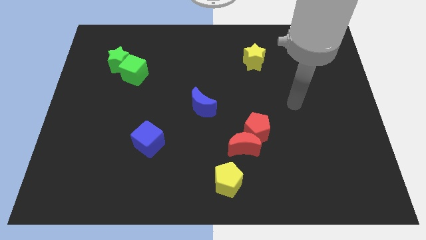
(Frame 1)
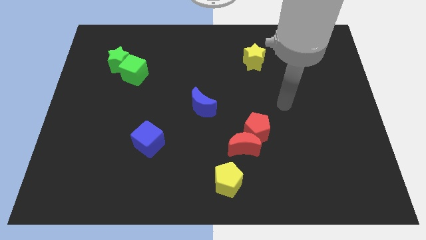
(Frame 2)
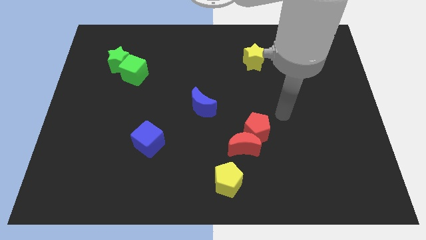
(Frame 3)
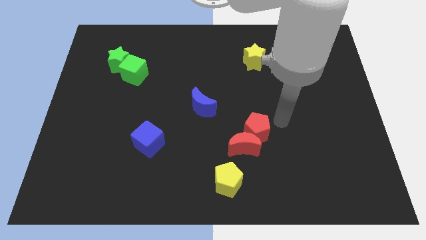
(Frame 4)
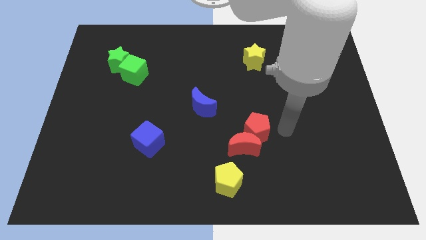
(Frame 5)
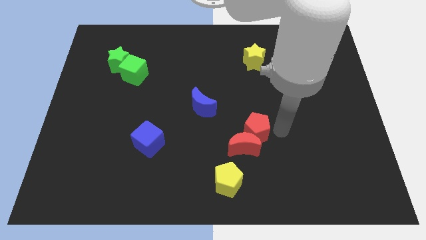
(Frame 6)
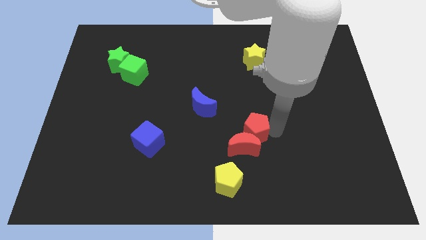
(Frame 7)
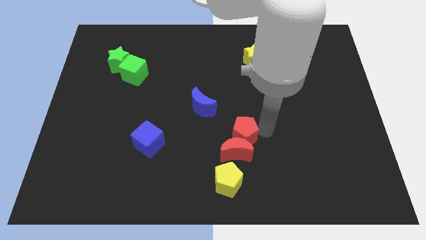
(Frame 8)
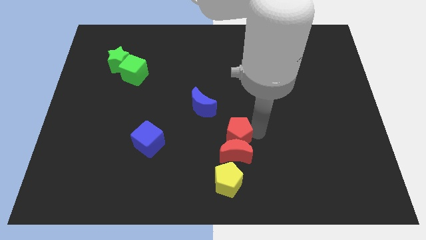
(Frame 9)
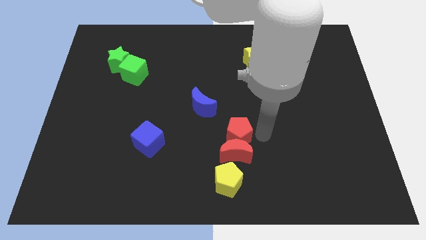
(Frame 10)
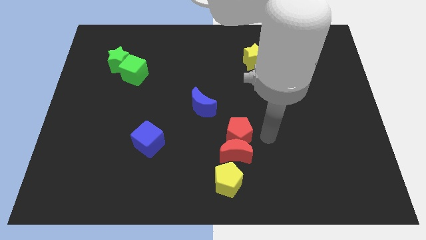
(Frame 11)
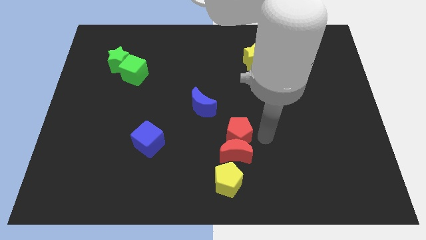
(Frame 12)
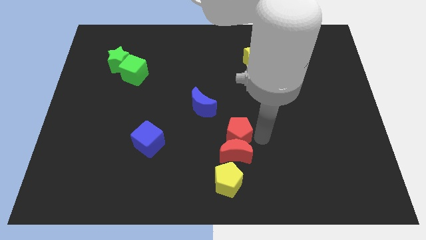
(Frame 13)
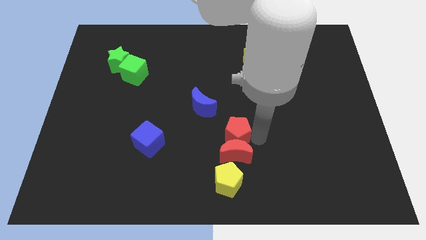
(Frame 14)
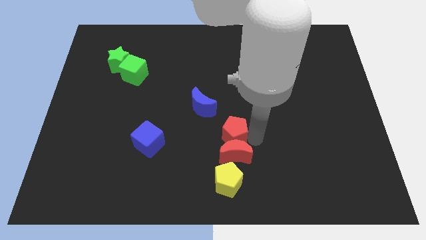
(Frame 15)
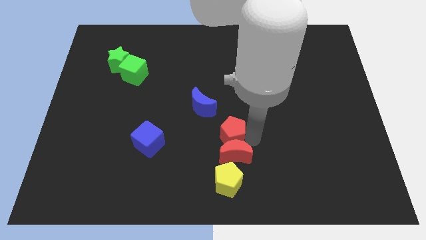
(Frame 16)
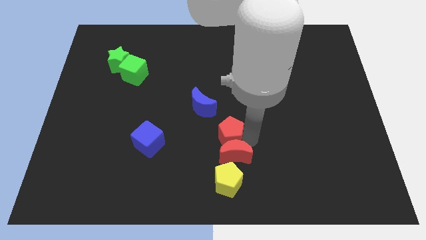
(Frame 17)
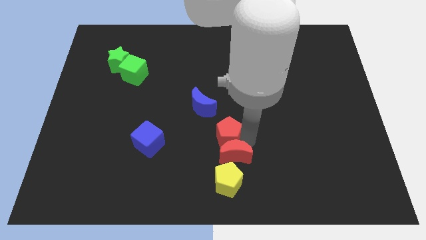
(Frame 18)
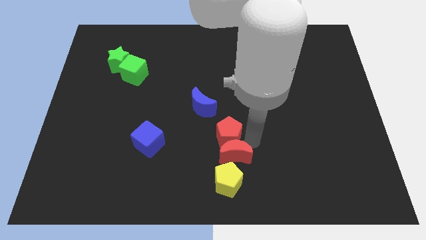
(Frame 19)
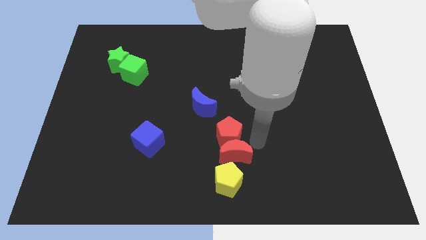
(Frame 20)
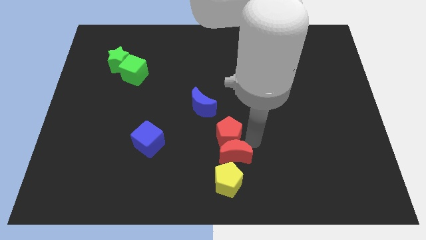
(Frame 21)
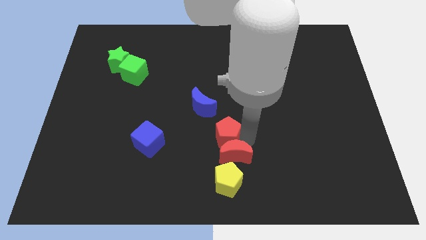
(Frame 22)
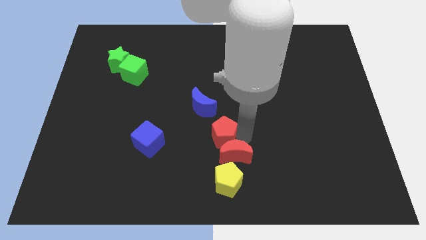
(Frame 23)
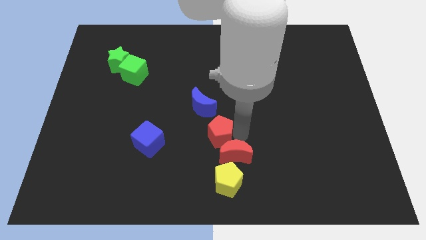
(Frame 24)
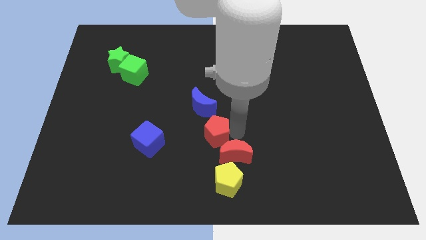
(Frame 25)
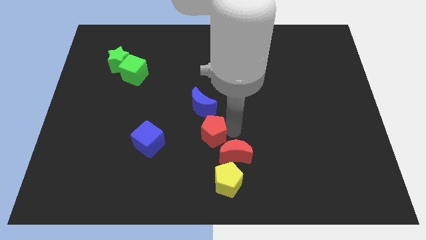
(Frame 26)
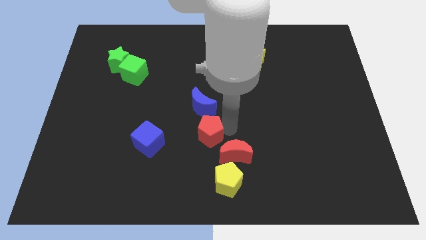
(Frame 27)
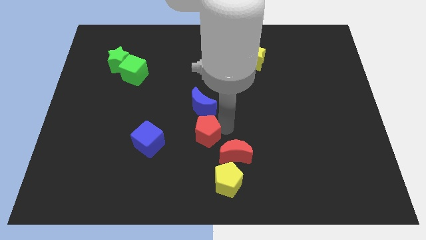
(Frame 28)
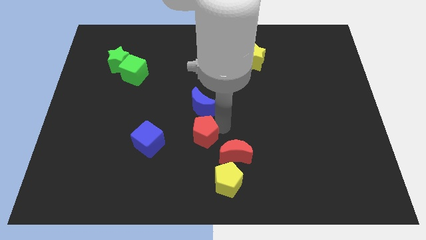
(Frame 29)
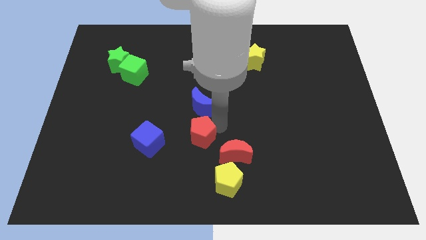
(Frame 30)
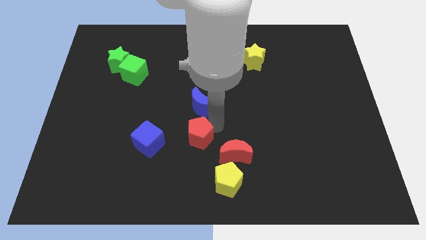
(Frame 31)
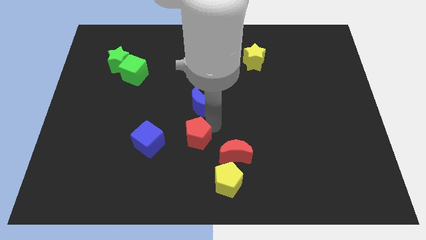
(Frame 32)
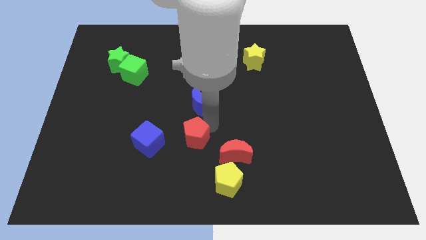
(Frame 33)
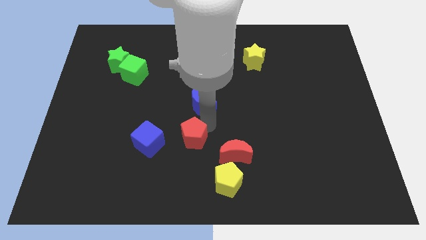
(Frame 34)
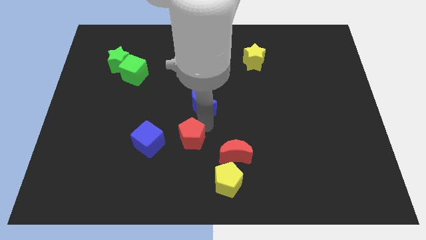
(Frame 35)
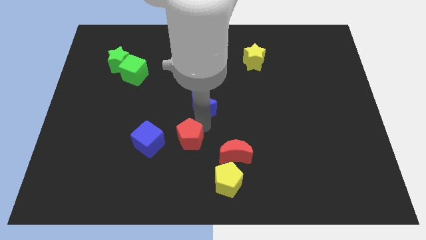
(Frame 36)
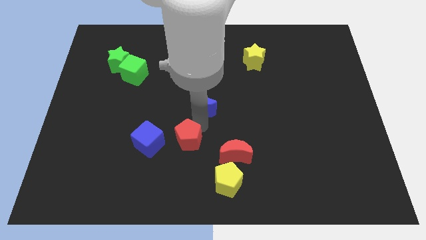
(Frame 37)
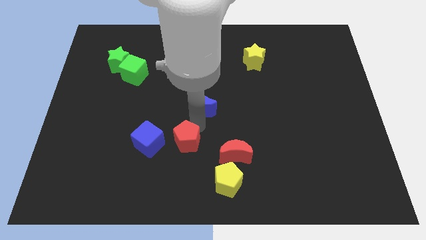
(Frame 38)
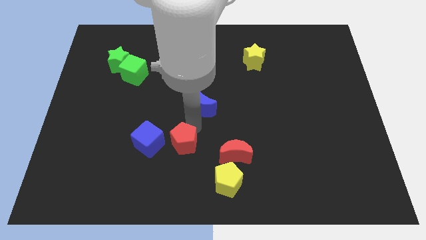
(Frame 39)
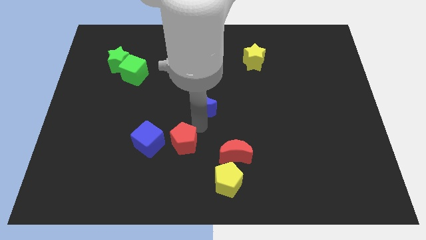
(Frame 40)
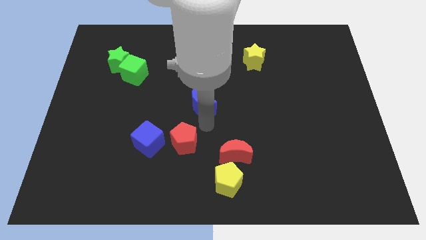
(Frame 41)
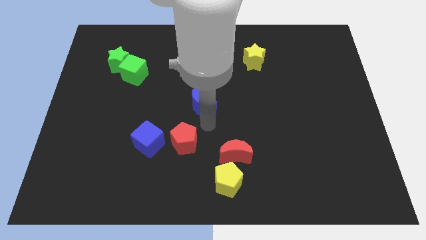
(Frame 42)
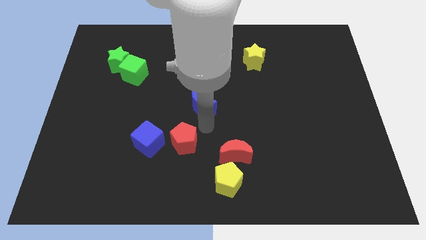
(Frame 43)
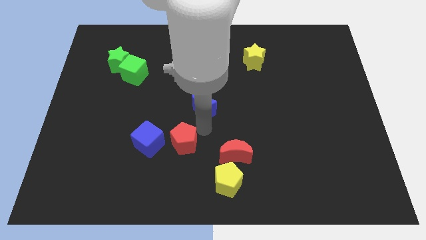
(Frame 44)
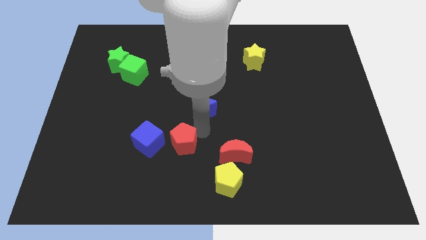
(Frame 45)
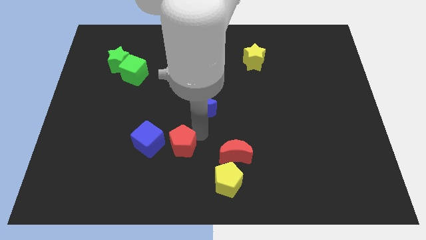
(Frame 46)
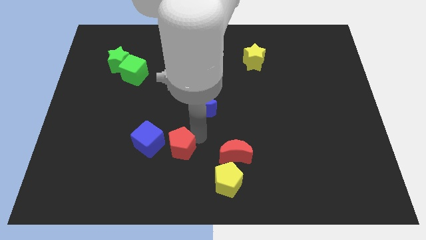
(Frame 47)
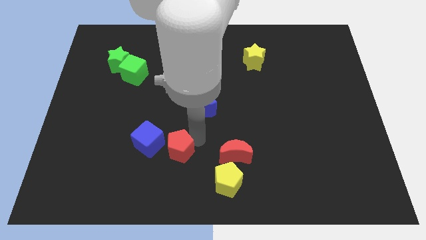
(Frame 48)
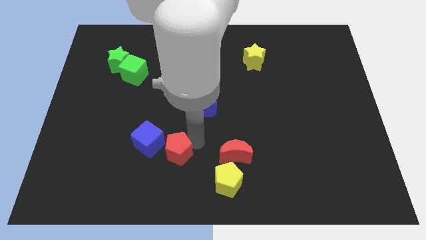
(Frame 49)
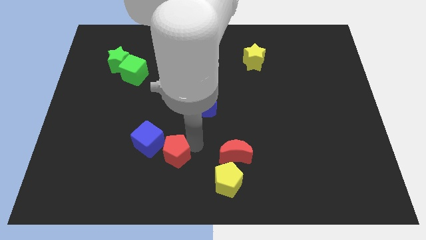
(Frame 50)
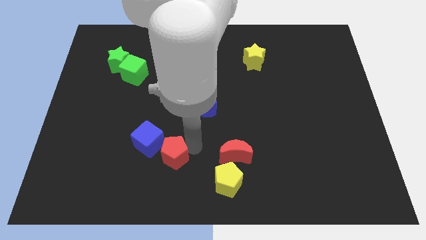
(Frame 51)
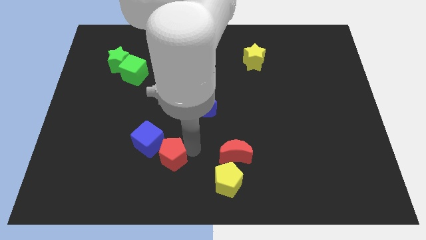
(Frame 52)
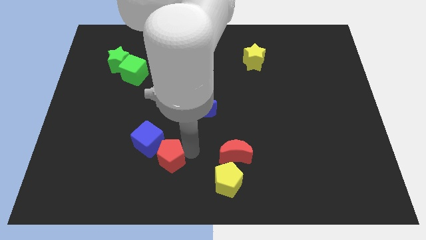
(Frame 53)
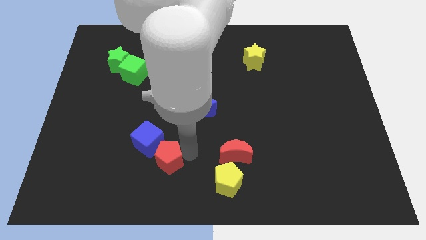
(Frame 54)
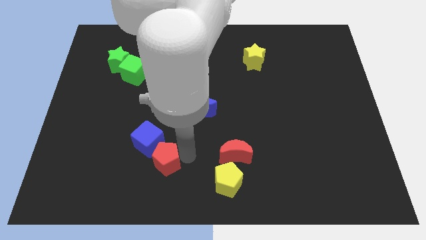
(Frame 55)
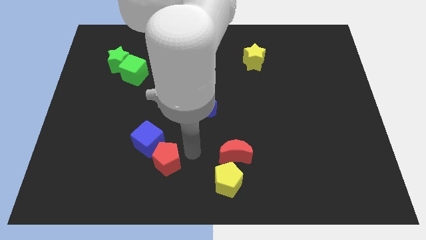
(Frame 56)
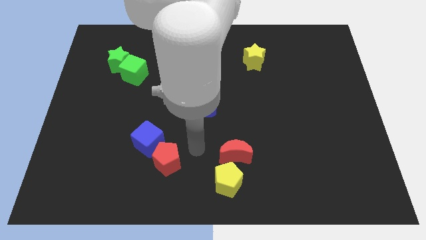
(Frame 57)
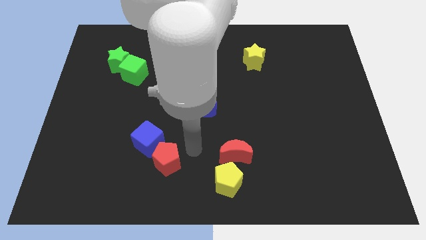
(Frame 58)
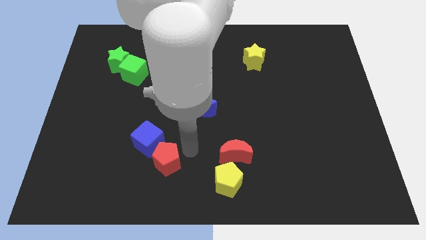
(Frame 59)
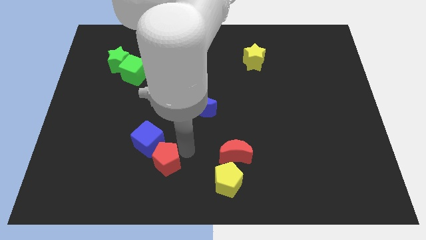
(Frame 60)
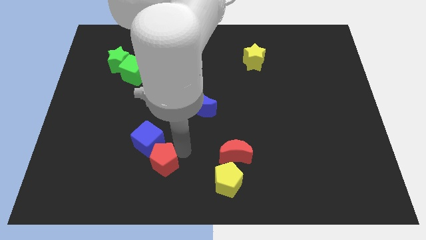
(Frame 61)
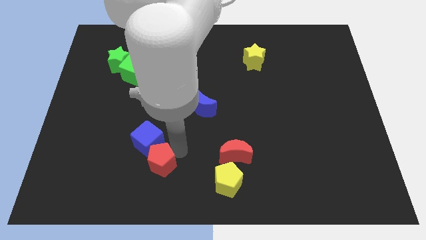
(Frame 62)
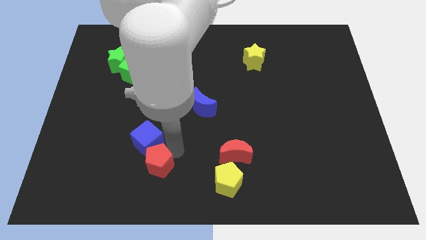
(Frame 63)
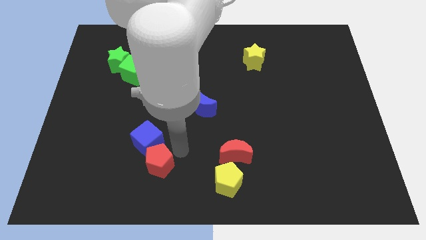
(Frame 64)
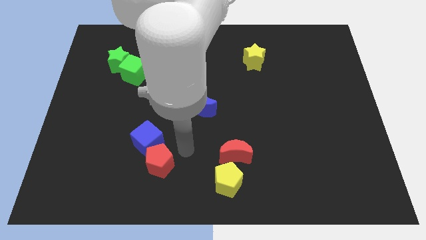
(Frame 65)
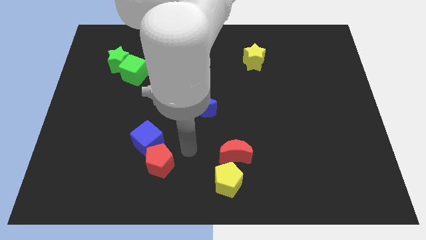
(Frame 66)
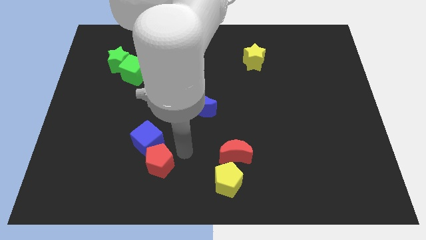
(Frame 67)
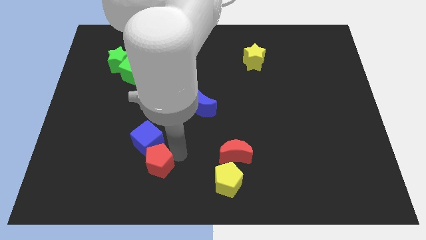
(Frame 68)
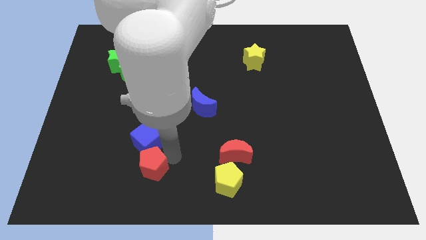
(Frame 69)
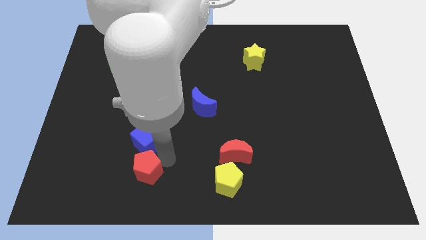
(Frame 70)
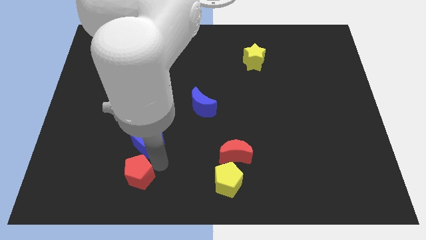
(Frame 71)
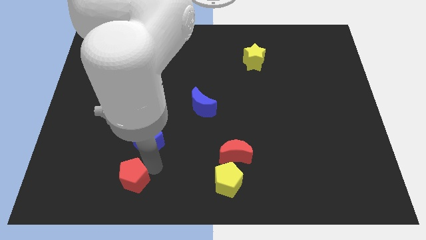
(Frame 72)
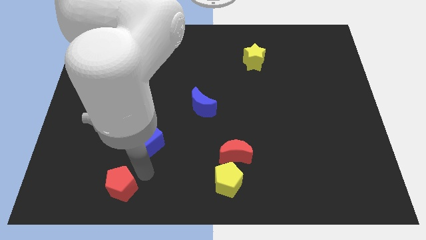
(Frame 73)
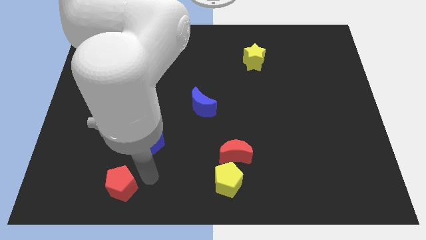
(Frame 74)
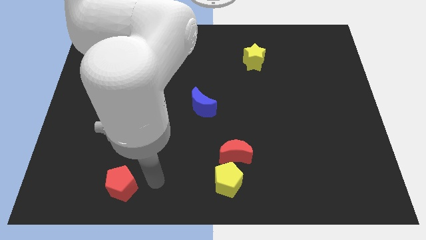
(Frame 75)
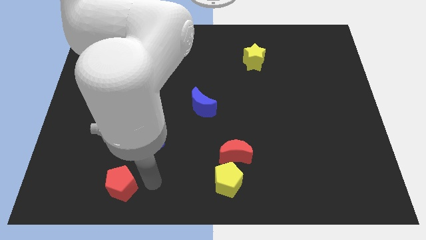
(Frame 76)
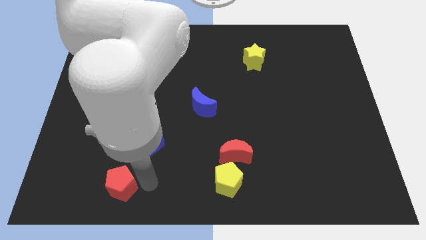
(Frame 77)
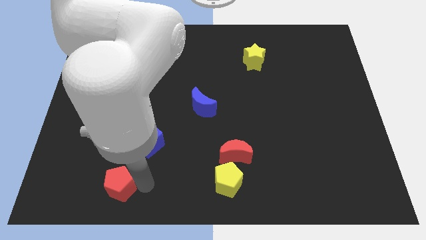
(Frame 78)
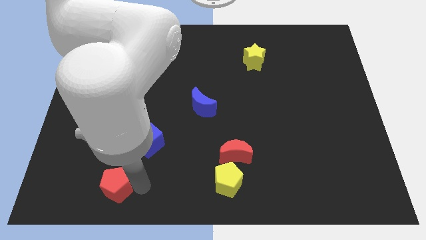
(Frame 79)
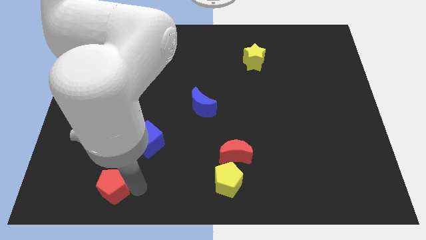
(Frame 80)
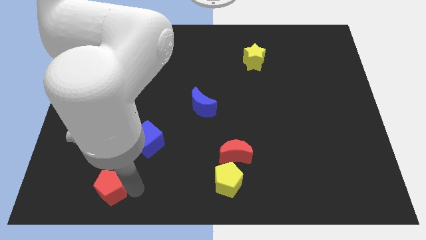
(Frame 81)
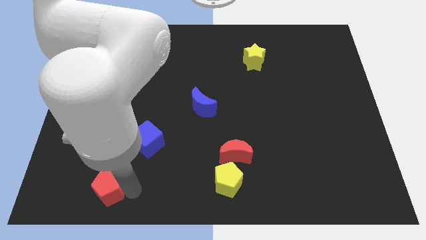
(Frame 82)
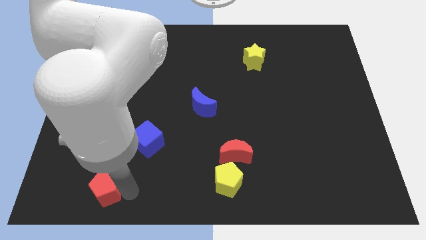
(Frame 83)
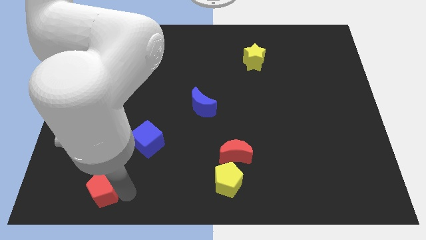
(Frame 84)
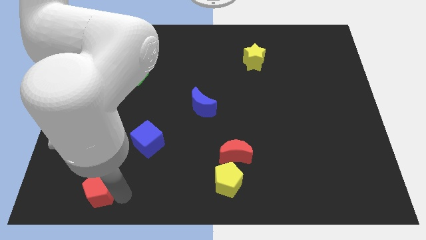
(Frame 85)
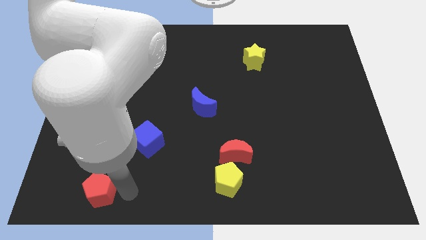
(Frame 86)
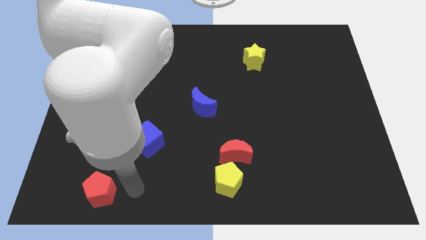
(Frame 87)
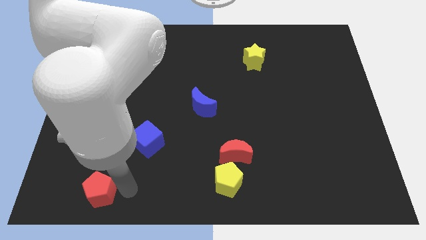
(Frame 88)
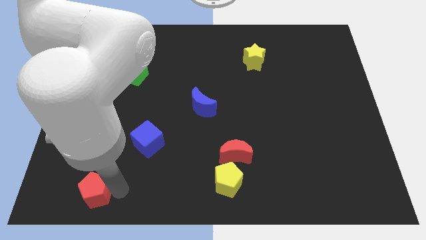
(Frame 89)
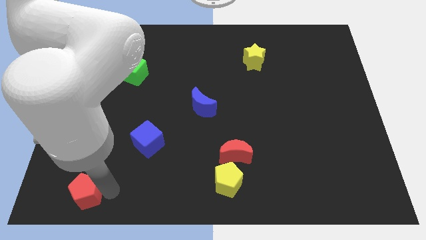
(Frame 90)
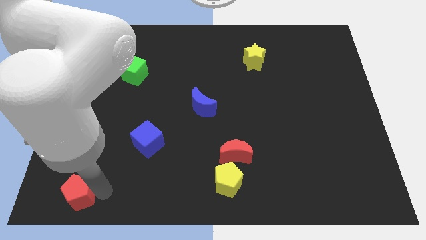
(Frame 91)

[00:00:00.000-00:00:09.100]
push the red pentagon to the bottom left of the board
